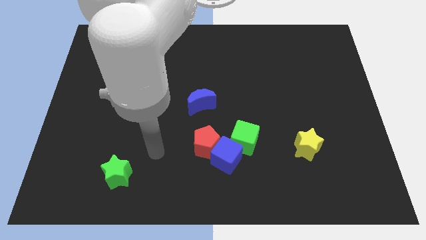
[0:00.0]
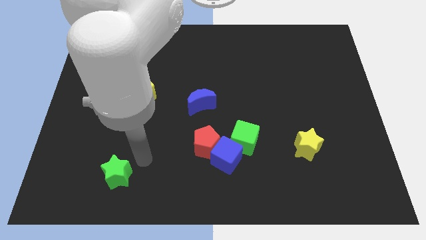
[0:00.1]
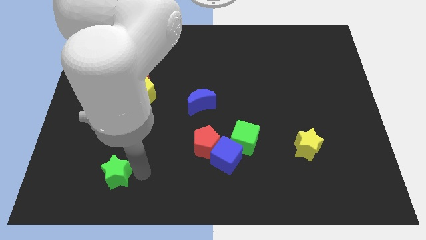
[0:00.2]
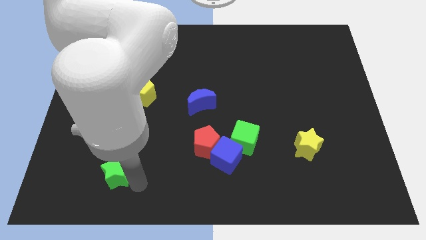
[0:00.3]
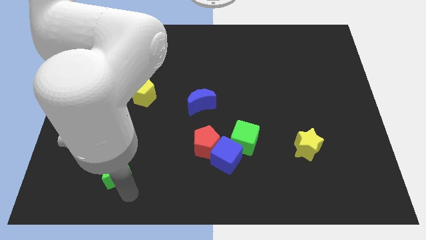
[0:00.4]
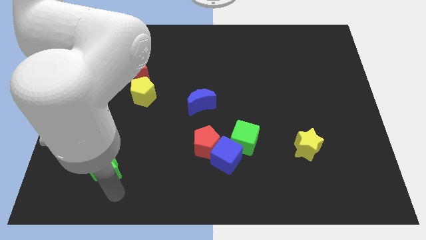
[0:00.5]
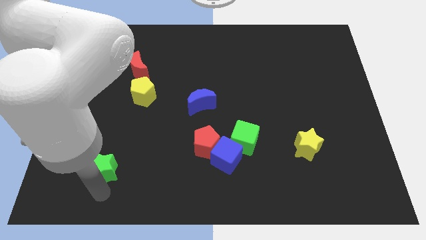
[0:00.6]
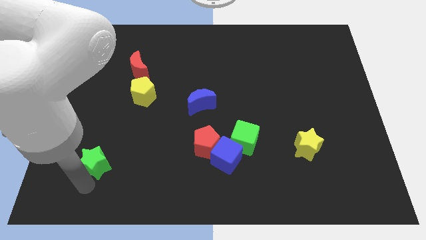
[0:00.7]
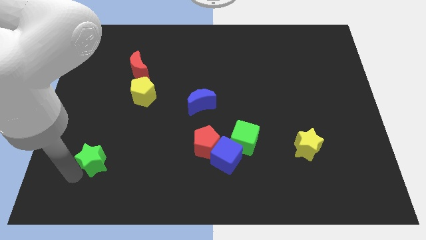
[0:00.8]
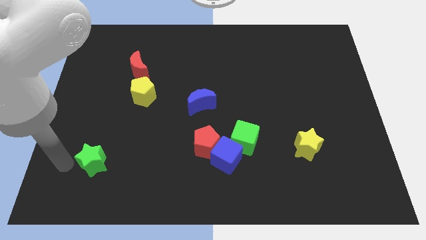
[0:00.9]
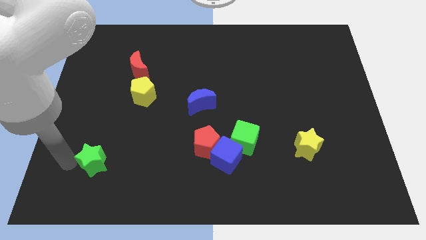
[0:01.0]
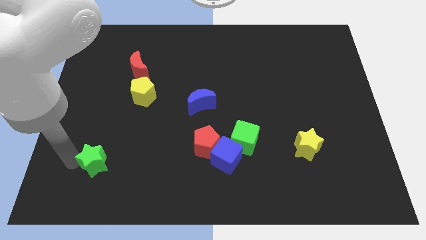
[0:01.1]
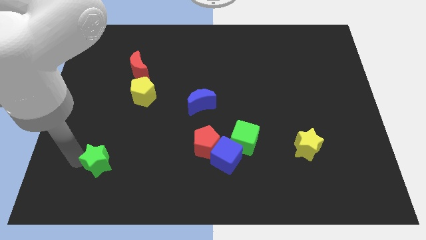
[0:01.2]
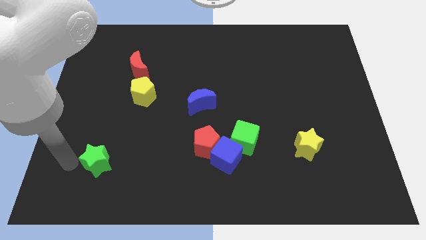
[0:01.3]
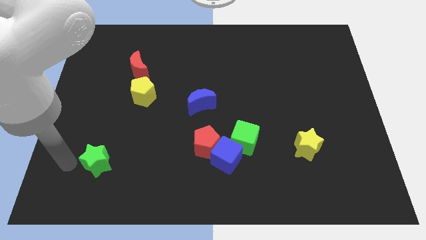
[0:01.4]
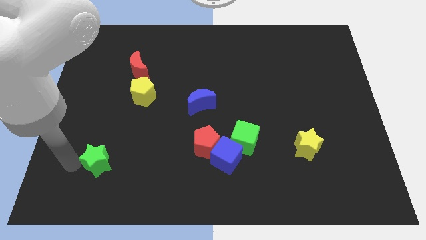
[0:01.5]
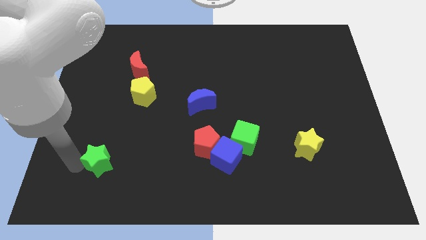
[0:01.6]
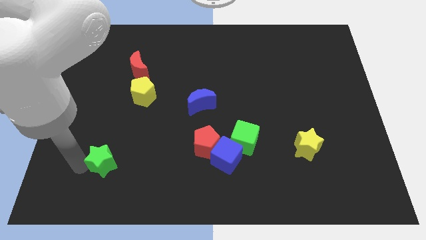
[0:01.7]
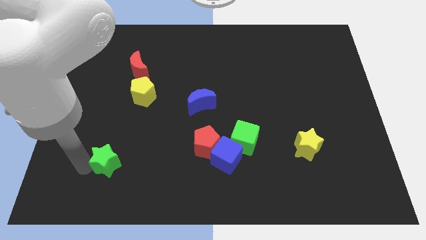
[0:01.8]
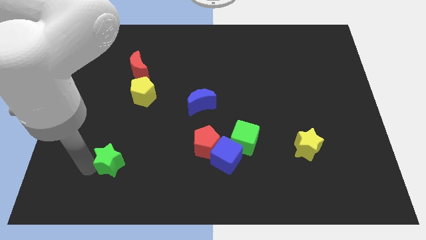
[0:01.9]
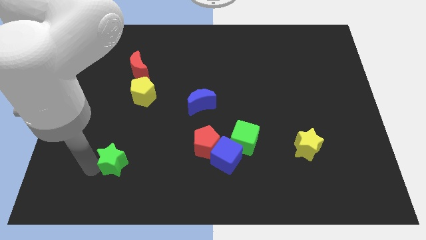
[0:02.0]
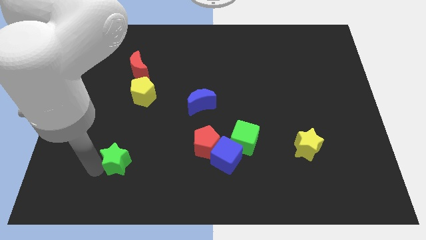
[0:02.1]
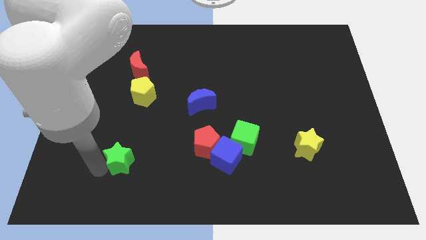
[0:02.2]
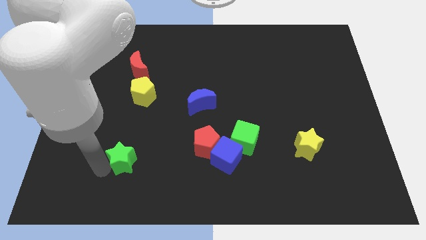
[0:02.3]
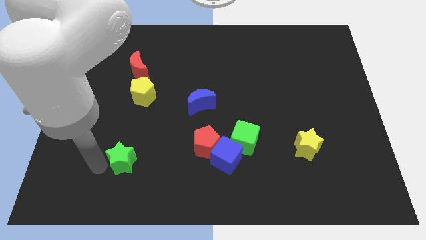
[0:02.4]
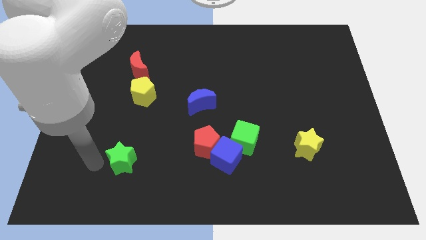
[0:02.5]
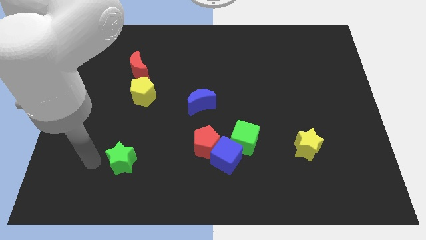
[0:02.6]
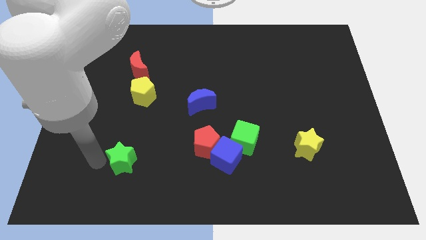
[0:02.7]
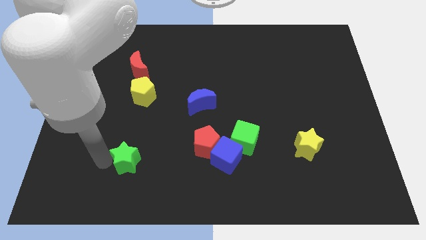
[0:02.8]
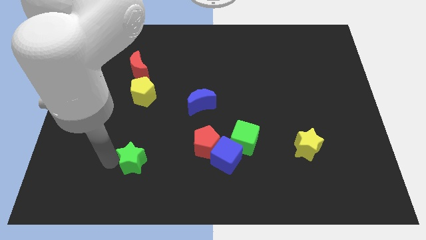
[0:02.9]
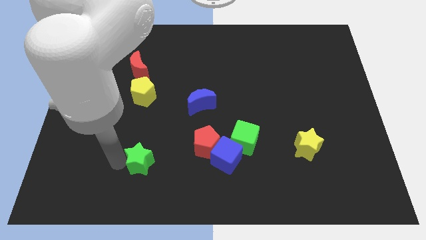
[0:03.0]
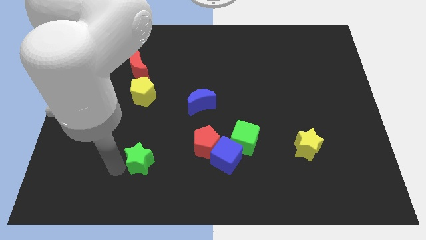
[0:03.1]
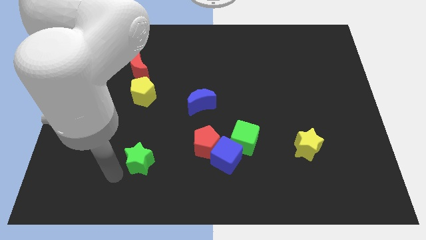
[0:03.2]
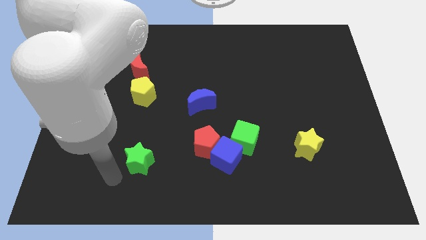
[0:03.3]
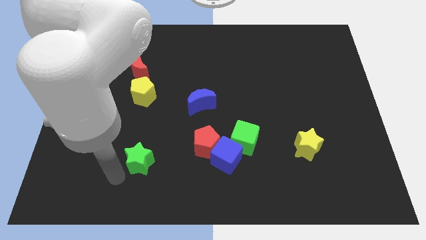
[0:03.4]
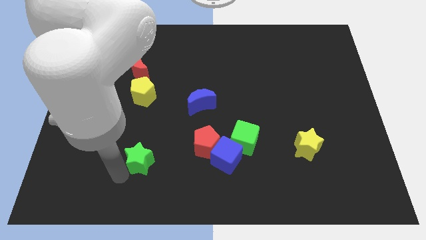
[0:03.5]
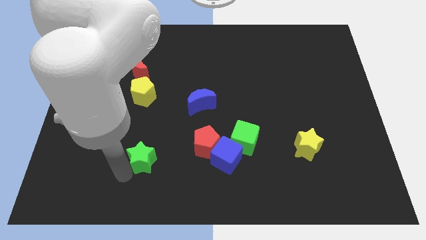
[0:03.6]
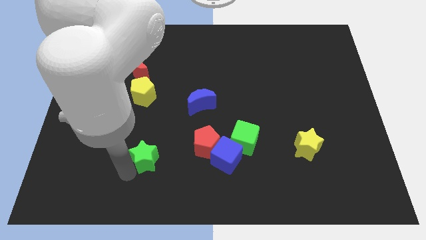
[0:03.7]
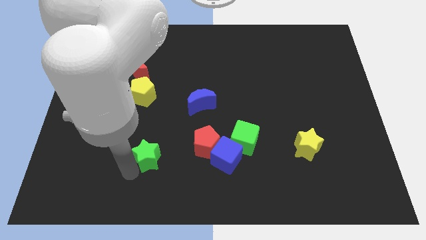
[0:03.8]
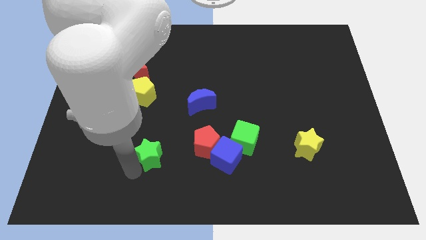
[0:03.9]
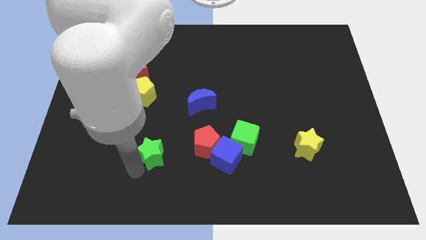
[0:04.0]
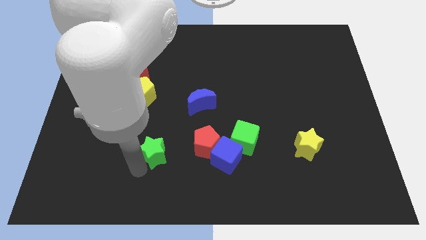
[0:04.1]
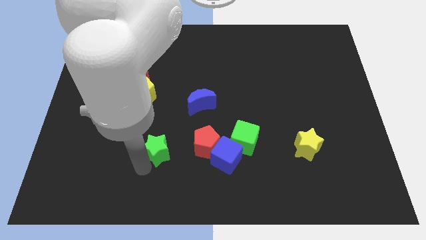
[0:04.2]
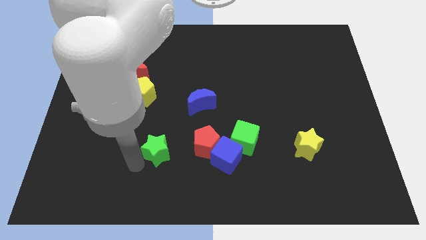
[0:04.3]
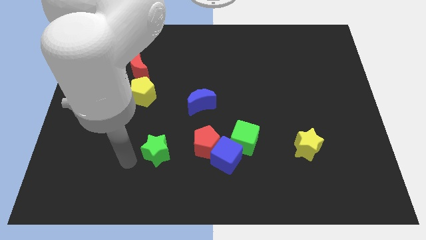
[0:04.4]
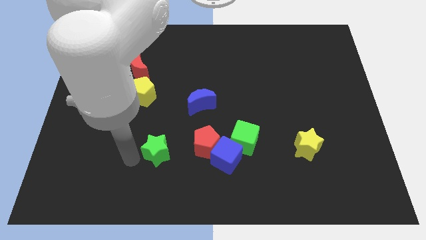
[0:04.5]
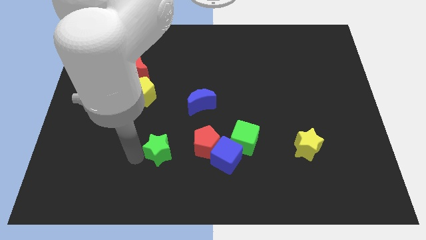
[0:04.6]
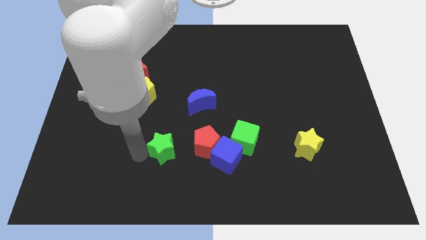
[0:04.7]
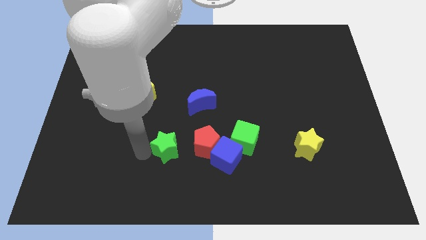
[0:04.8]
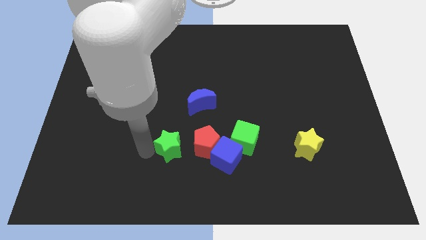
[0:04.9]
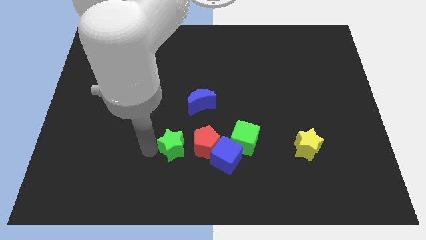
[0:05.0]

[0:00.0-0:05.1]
put the green star left of the green cube

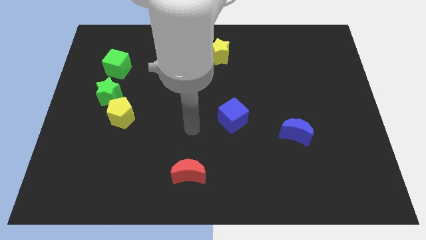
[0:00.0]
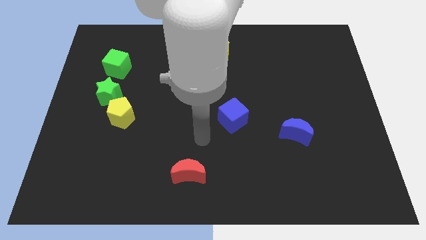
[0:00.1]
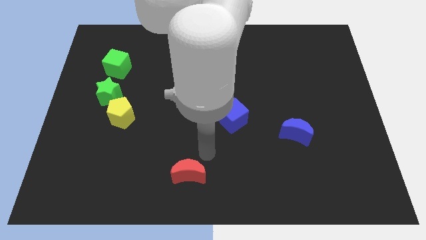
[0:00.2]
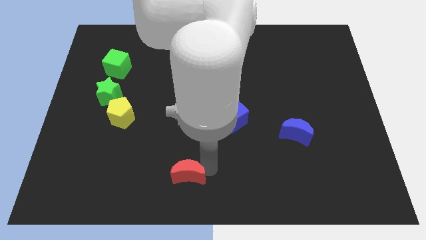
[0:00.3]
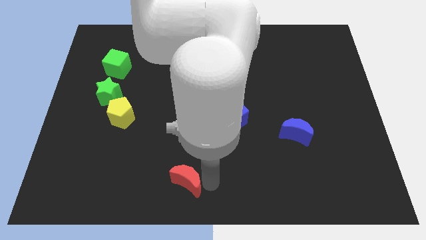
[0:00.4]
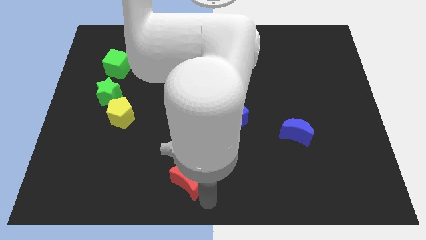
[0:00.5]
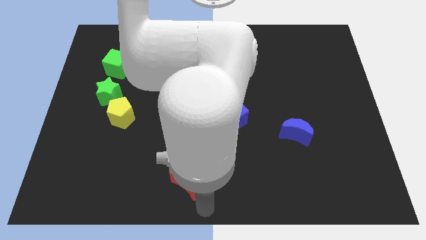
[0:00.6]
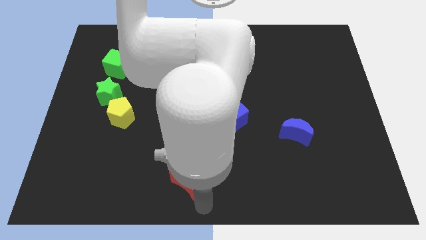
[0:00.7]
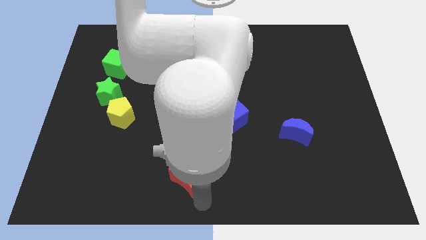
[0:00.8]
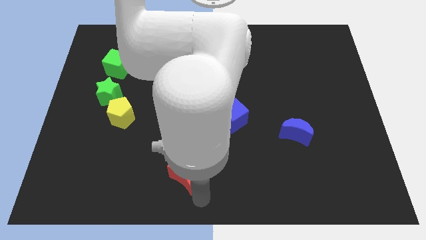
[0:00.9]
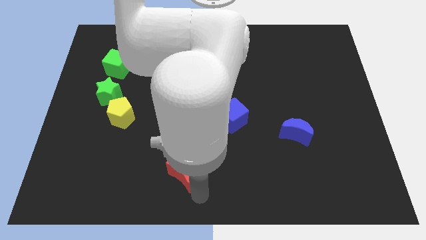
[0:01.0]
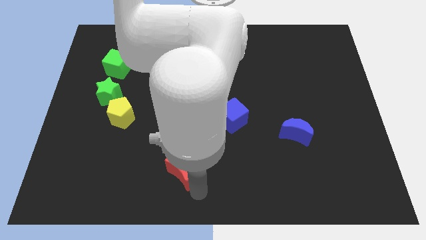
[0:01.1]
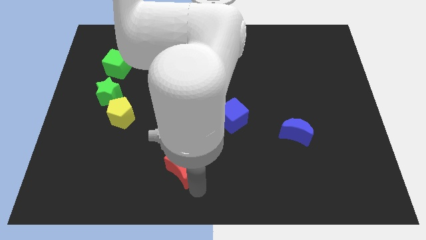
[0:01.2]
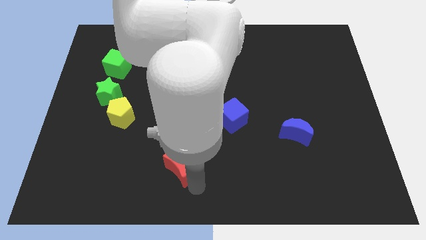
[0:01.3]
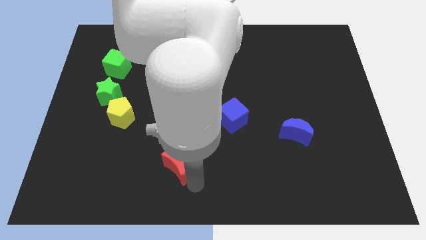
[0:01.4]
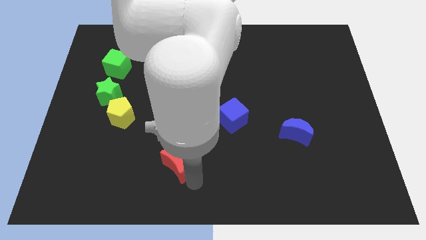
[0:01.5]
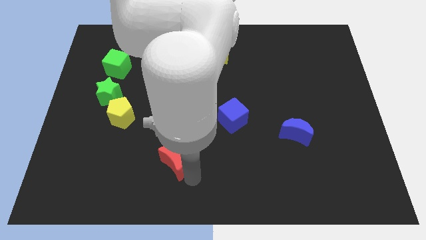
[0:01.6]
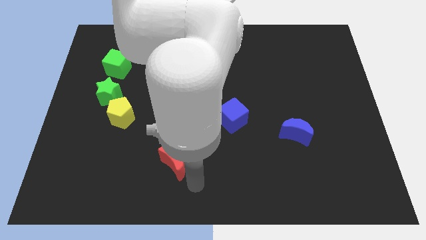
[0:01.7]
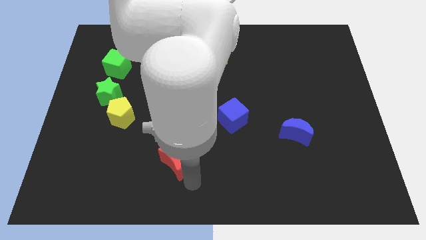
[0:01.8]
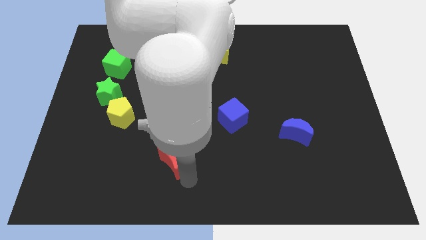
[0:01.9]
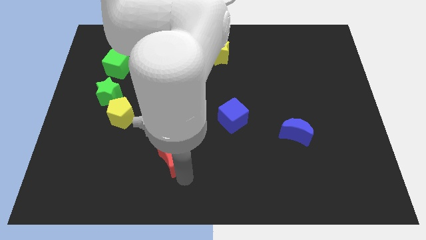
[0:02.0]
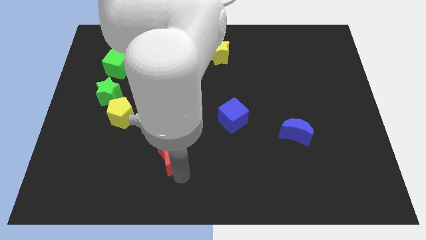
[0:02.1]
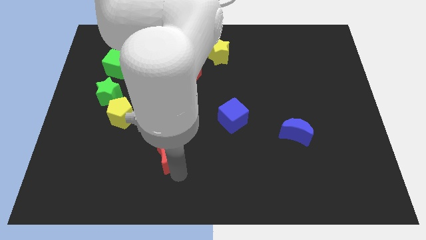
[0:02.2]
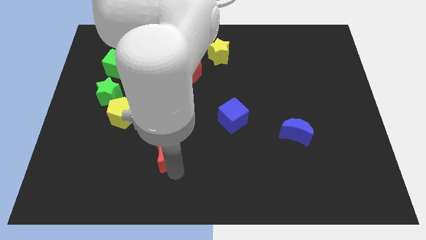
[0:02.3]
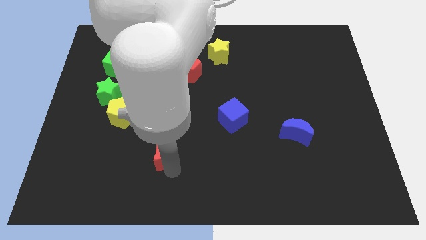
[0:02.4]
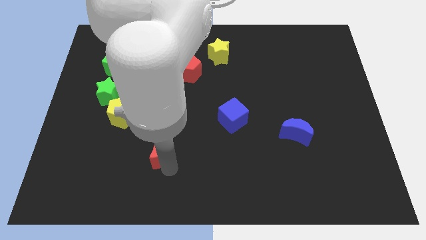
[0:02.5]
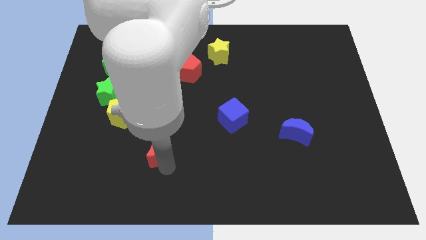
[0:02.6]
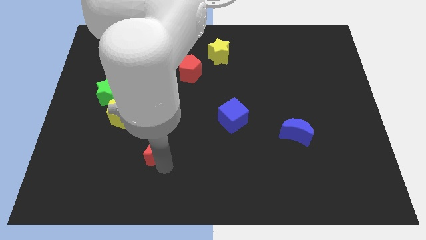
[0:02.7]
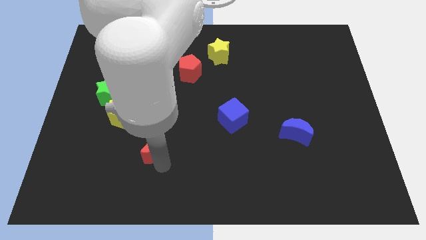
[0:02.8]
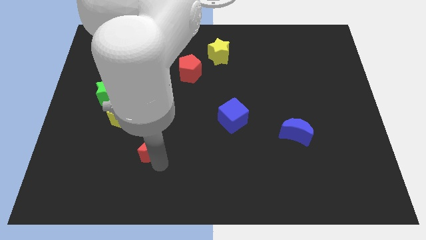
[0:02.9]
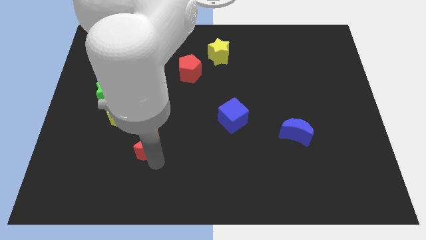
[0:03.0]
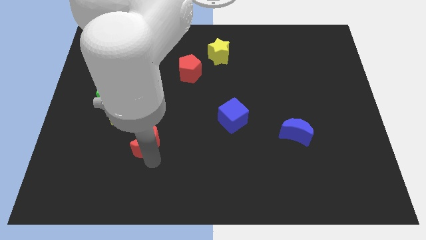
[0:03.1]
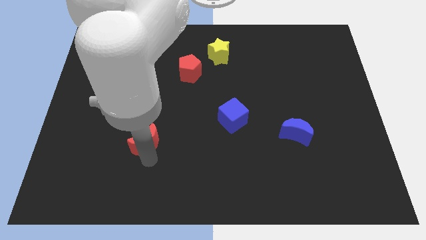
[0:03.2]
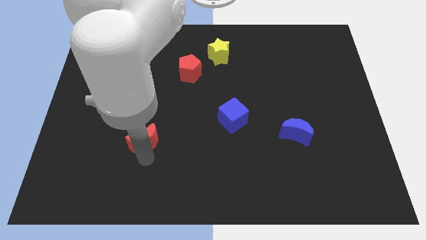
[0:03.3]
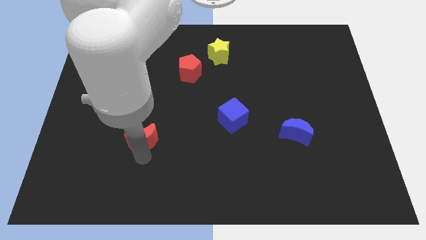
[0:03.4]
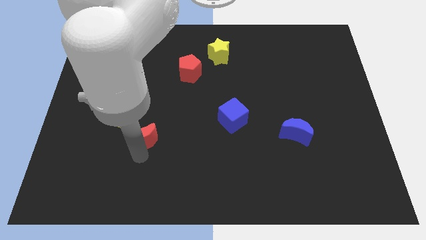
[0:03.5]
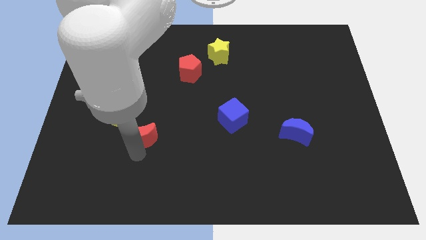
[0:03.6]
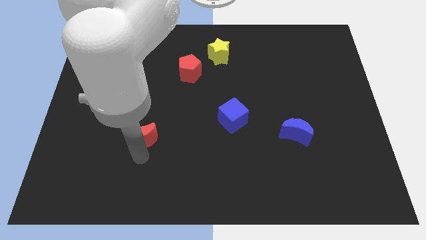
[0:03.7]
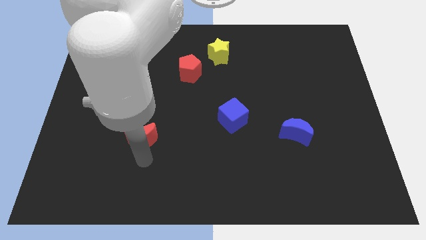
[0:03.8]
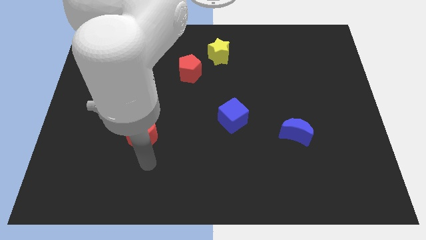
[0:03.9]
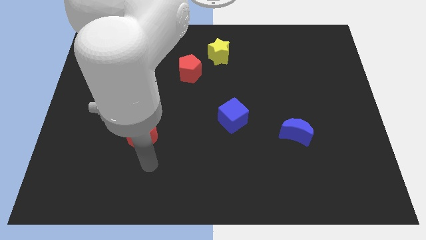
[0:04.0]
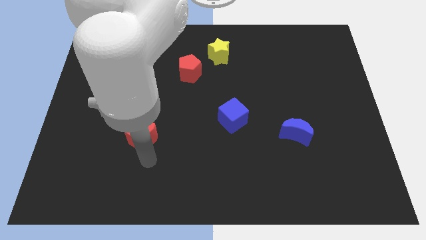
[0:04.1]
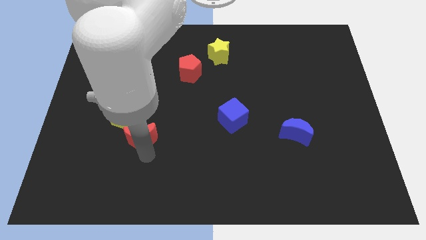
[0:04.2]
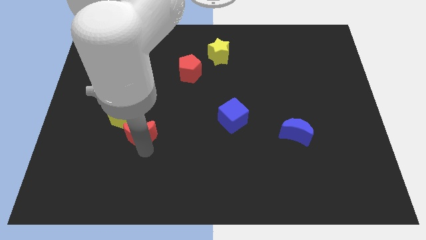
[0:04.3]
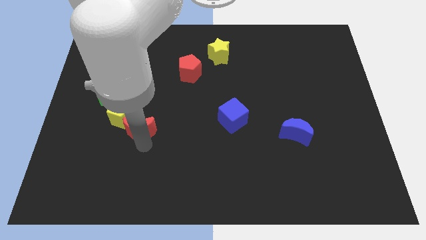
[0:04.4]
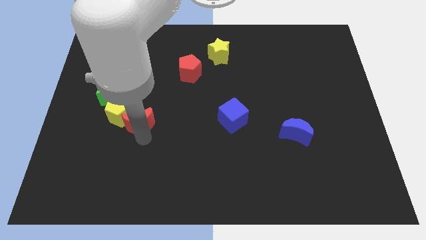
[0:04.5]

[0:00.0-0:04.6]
push the red moon to the bottom right of the green star
